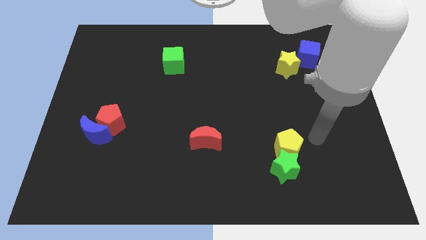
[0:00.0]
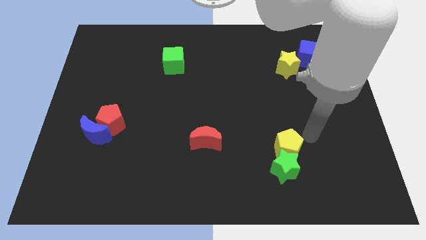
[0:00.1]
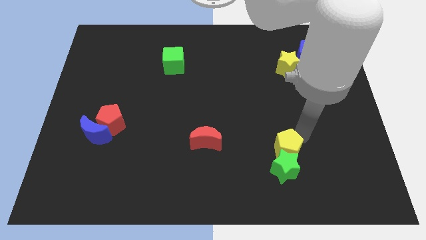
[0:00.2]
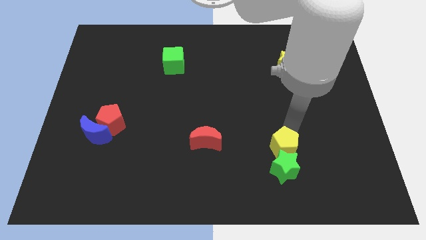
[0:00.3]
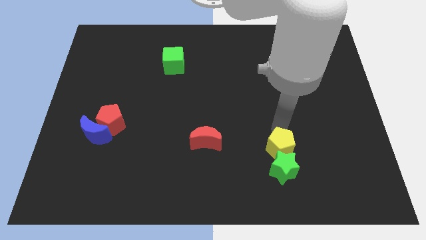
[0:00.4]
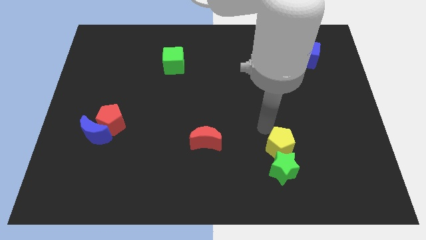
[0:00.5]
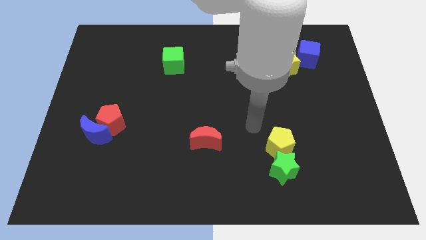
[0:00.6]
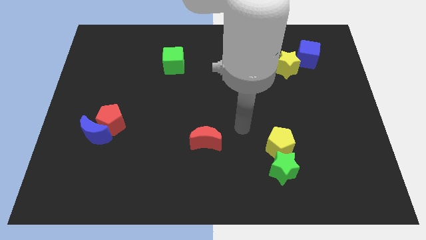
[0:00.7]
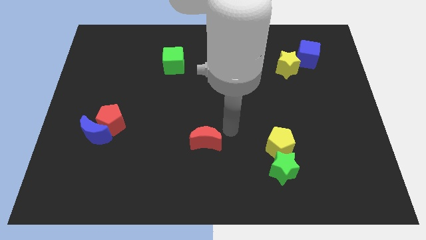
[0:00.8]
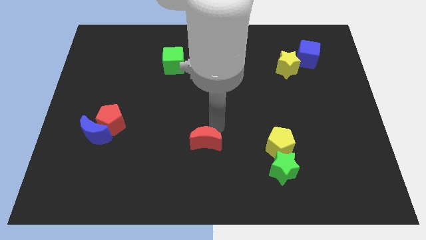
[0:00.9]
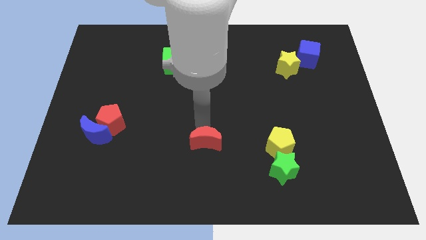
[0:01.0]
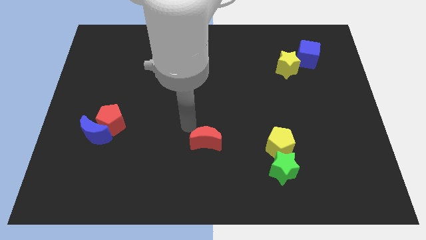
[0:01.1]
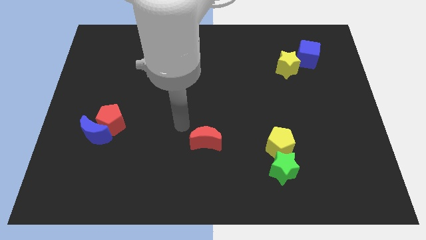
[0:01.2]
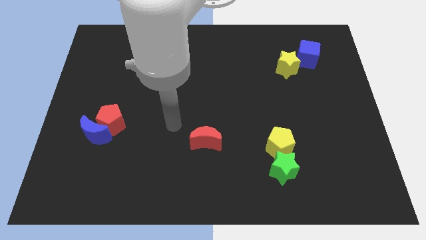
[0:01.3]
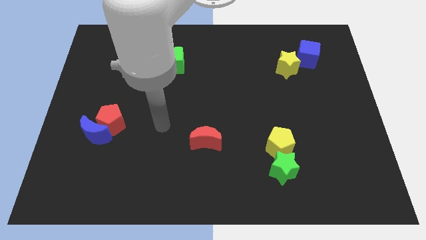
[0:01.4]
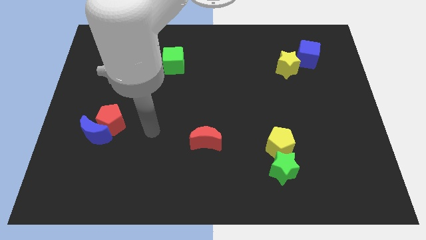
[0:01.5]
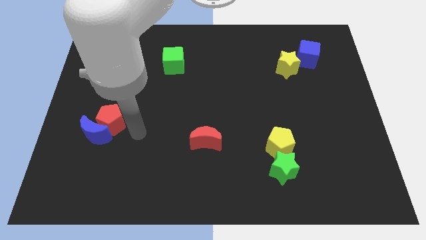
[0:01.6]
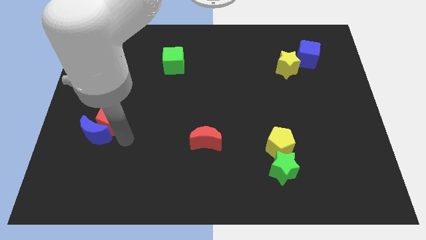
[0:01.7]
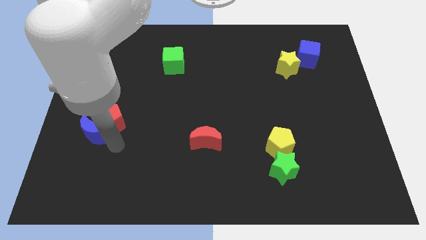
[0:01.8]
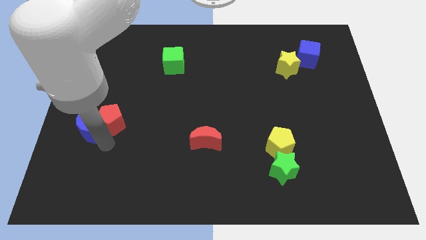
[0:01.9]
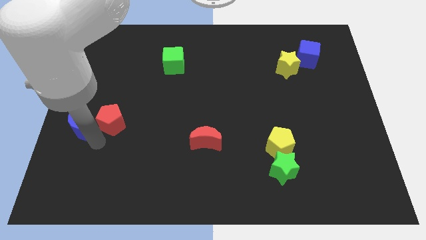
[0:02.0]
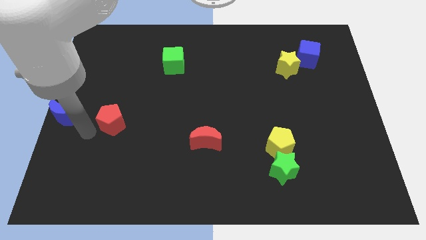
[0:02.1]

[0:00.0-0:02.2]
move the red pentagon away from the blue moon

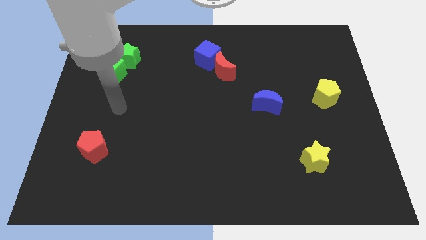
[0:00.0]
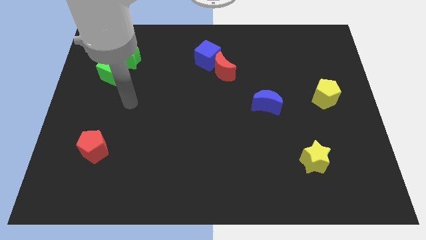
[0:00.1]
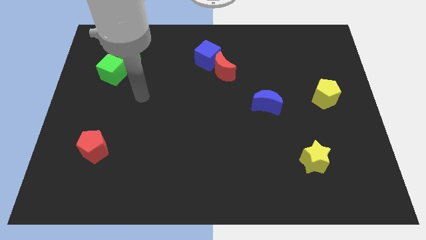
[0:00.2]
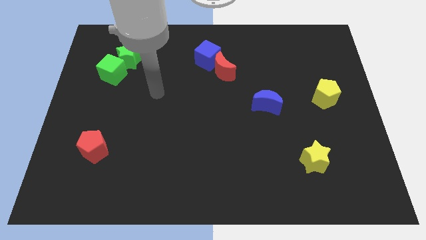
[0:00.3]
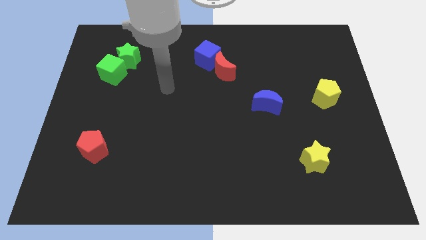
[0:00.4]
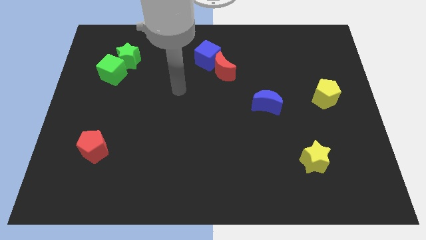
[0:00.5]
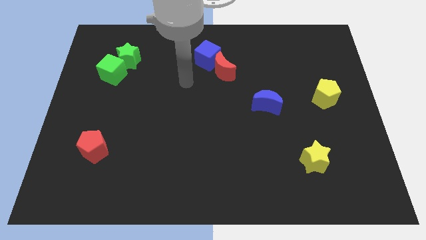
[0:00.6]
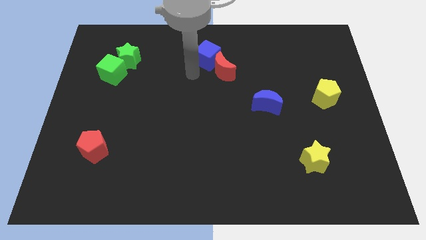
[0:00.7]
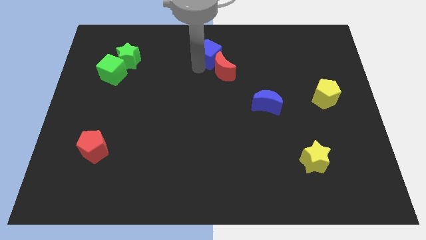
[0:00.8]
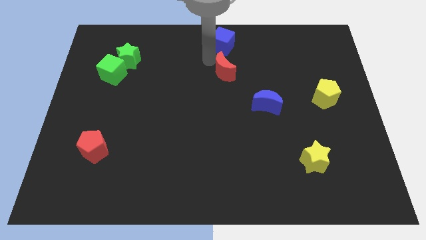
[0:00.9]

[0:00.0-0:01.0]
separate the red moon from the blue cube

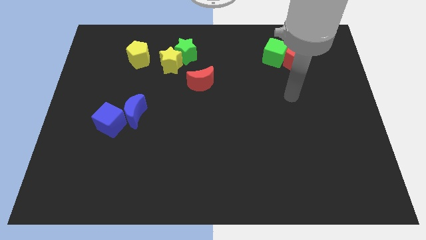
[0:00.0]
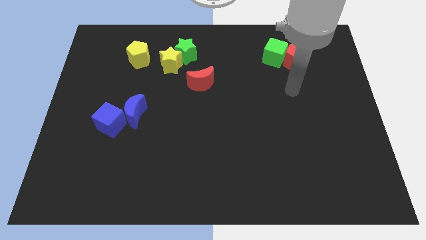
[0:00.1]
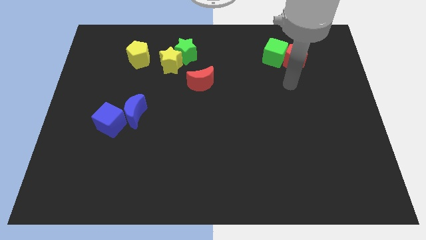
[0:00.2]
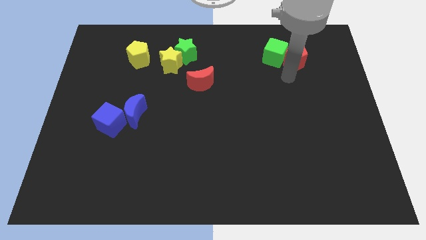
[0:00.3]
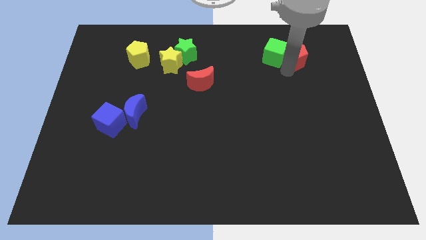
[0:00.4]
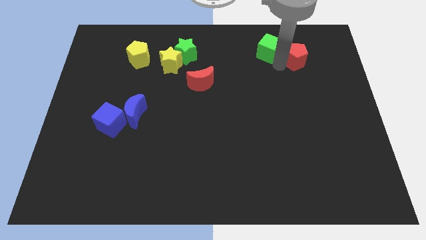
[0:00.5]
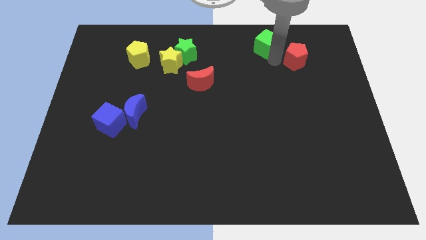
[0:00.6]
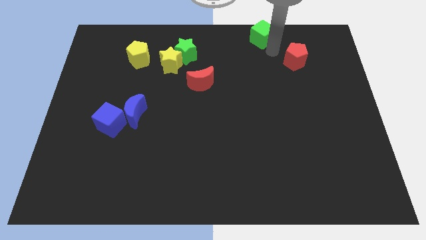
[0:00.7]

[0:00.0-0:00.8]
move the red pentagon away from the green cube

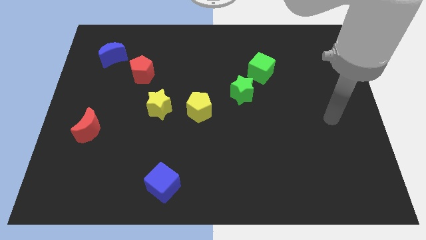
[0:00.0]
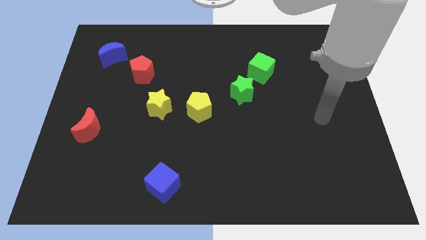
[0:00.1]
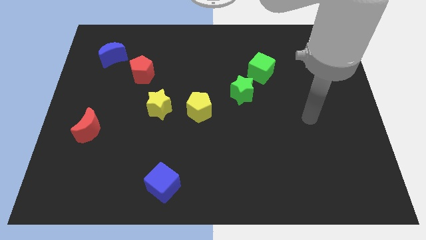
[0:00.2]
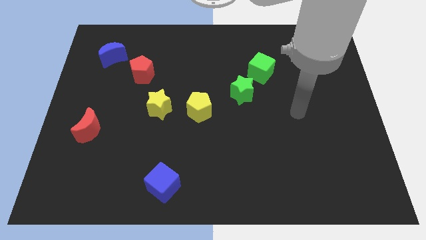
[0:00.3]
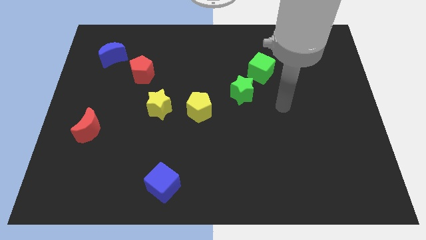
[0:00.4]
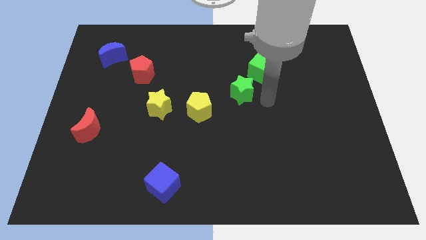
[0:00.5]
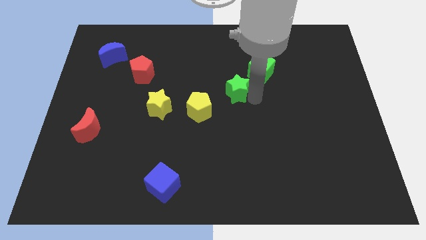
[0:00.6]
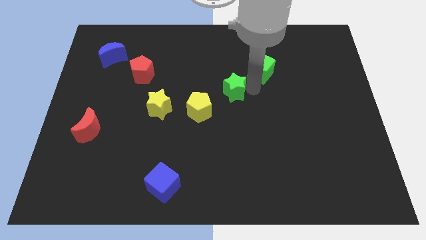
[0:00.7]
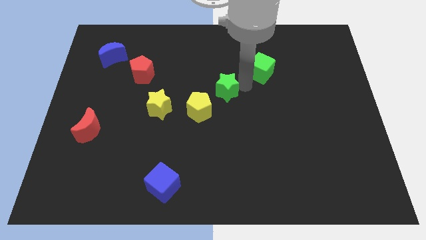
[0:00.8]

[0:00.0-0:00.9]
separate the green cube from the green star

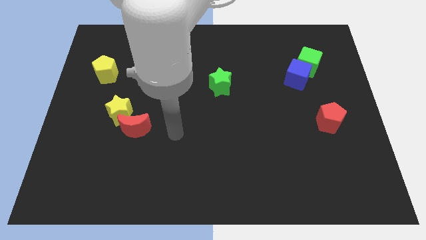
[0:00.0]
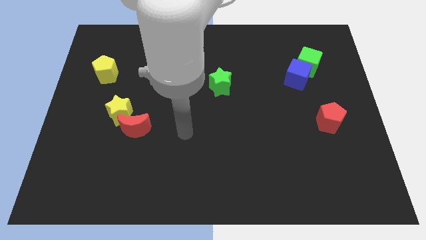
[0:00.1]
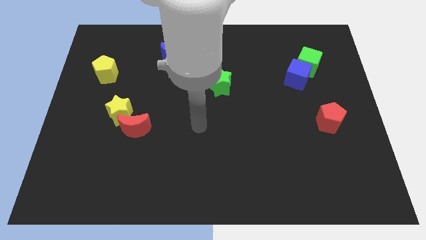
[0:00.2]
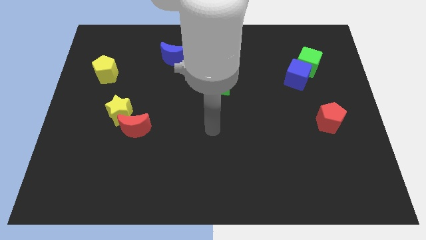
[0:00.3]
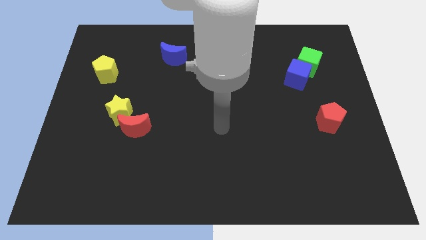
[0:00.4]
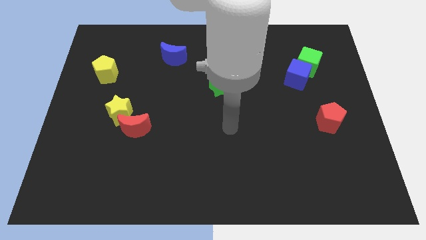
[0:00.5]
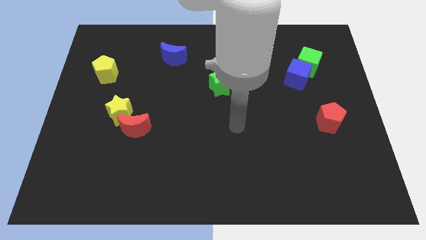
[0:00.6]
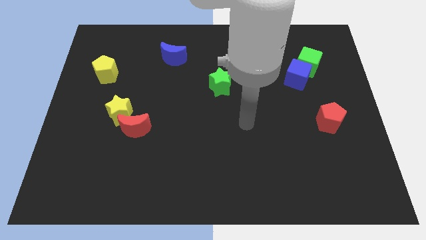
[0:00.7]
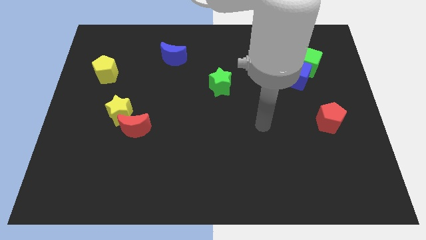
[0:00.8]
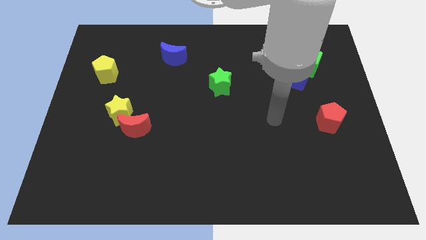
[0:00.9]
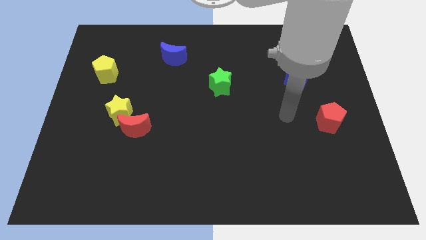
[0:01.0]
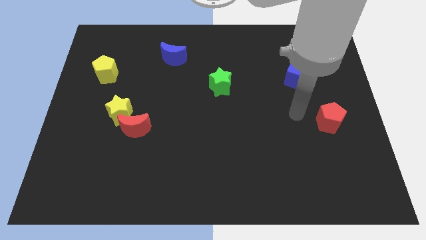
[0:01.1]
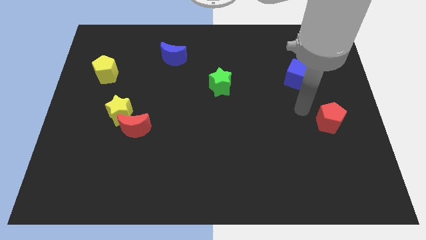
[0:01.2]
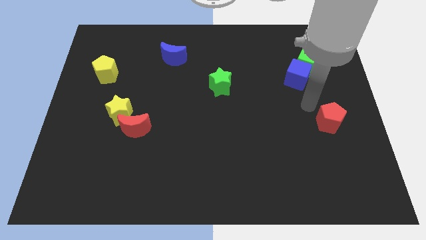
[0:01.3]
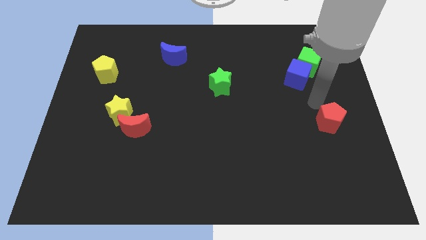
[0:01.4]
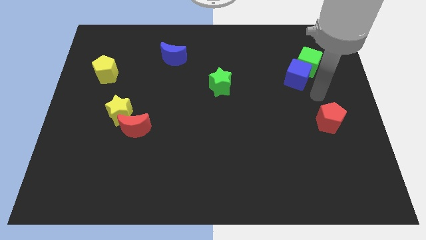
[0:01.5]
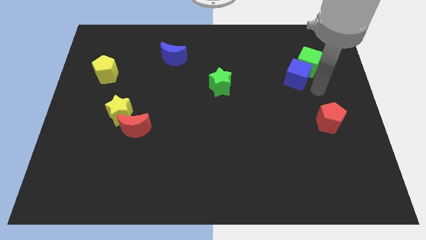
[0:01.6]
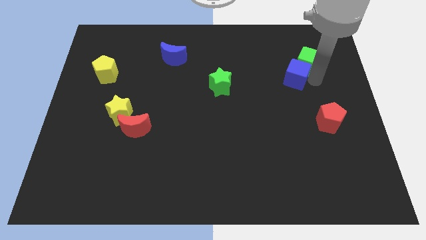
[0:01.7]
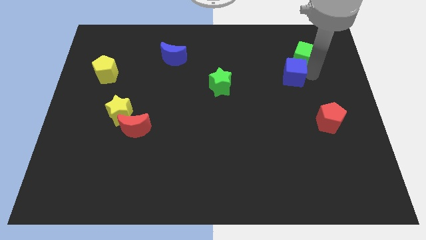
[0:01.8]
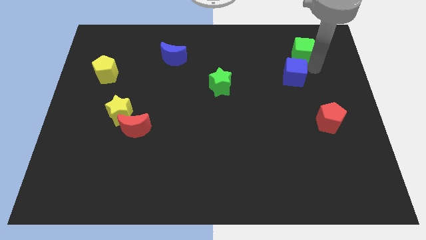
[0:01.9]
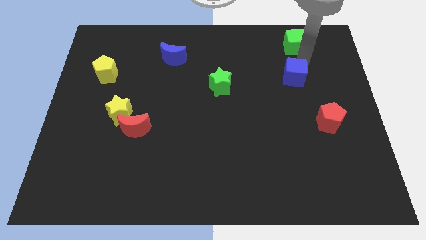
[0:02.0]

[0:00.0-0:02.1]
pull the blue cube apart from the green cube

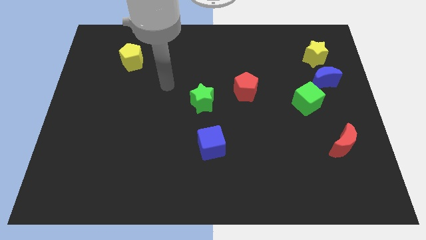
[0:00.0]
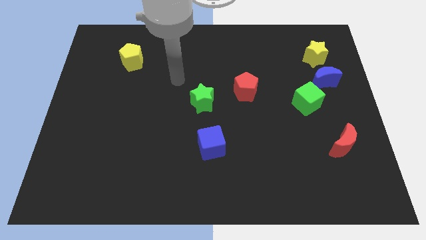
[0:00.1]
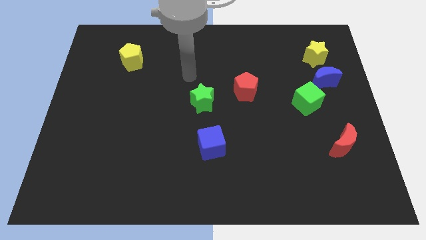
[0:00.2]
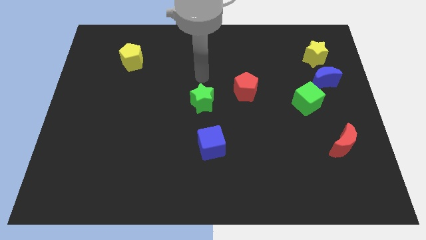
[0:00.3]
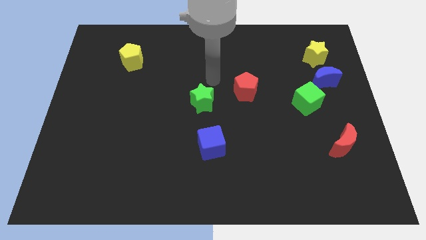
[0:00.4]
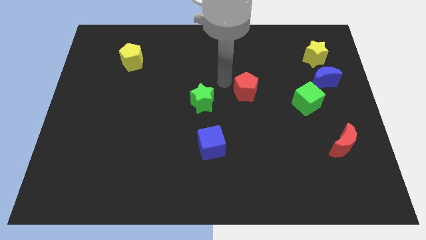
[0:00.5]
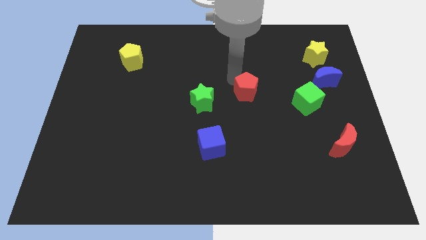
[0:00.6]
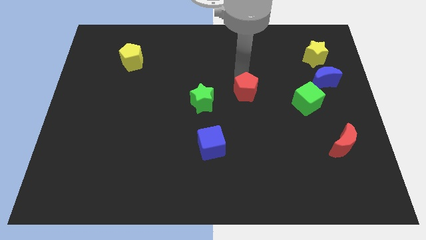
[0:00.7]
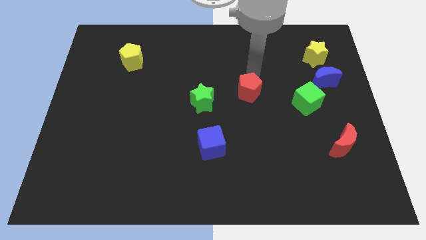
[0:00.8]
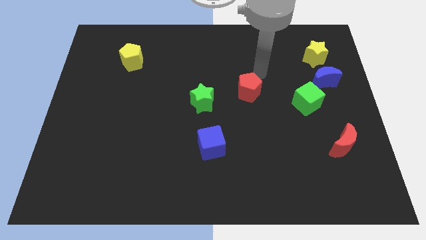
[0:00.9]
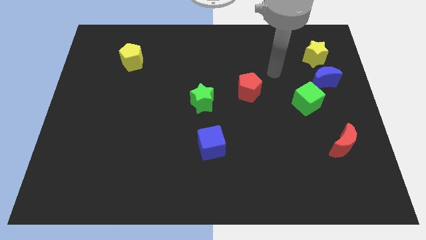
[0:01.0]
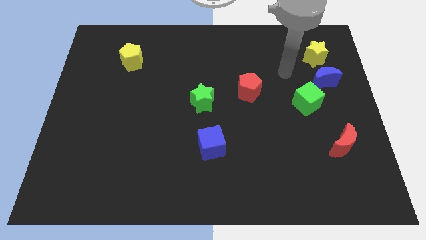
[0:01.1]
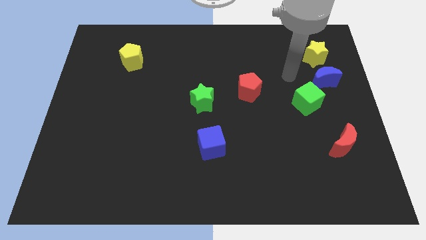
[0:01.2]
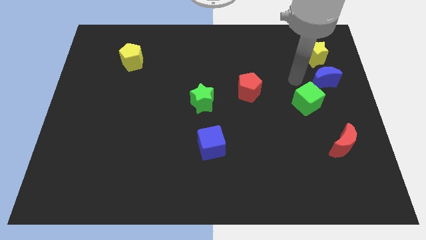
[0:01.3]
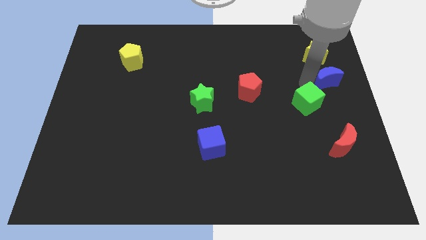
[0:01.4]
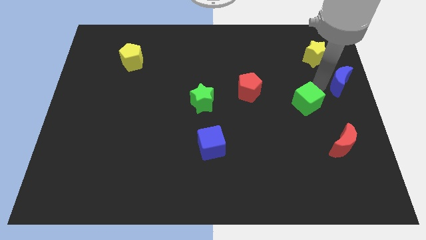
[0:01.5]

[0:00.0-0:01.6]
pull the green cube apart from the blue moon

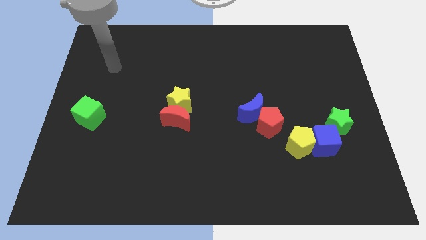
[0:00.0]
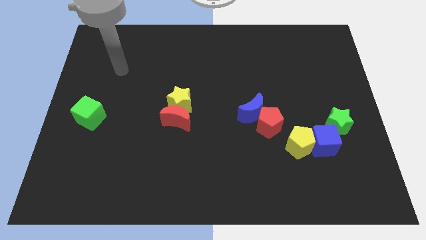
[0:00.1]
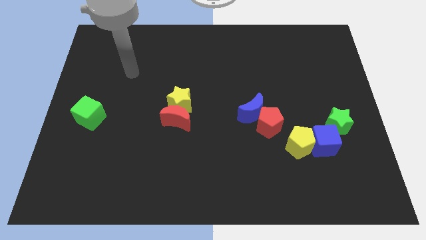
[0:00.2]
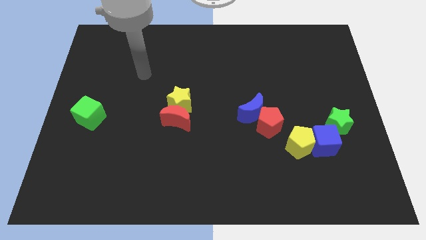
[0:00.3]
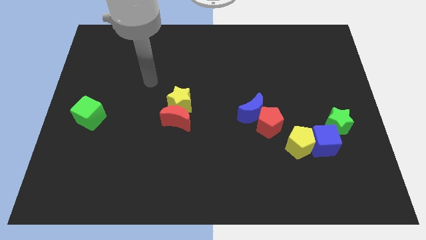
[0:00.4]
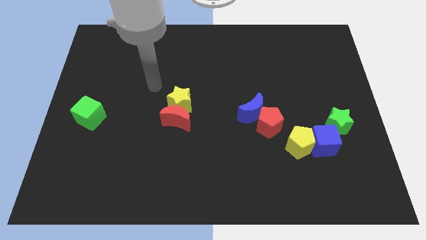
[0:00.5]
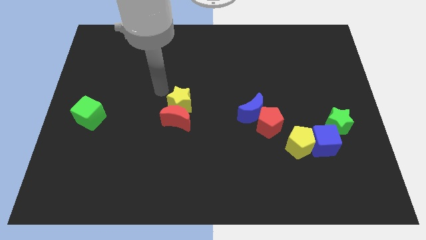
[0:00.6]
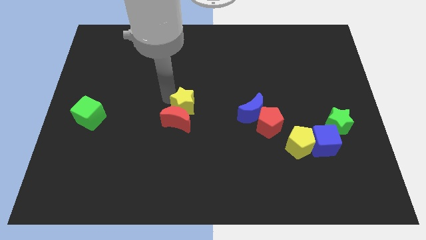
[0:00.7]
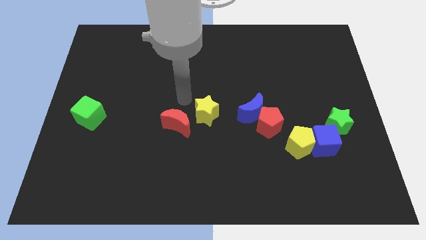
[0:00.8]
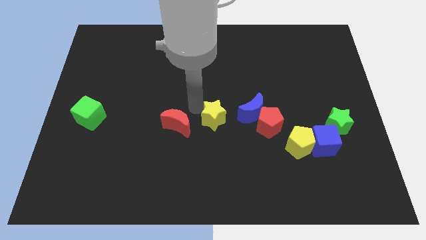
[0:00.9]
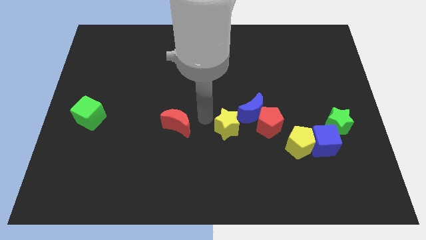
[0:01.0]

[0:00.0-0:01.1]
pull the red moon apart from the yellow star
